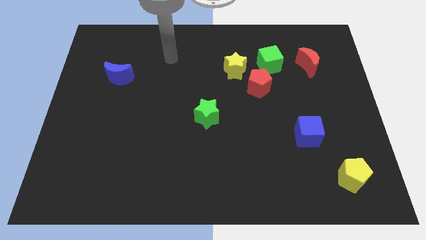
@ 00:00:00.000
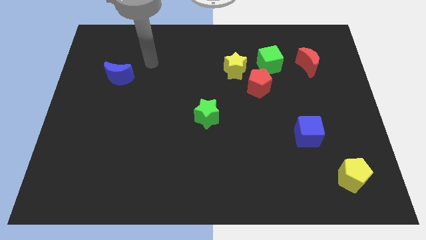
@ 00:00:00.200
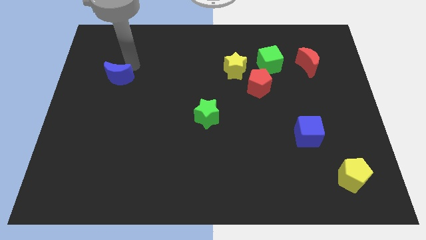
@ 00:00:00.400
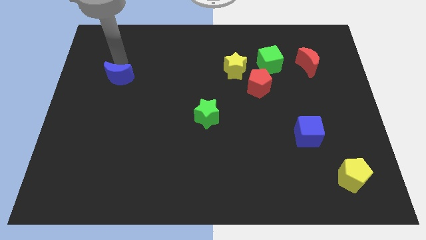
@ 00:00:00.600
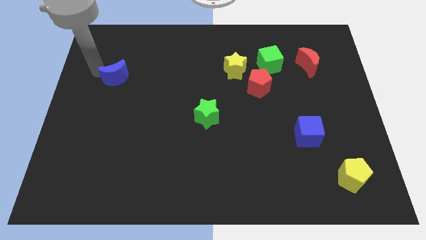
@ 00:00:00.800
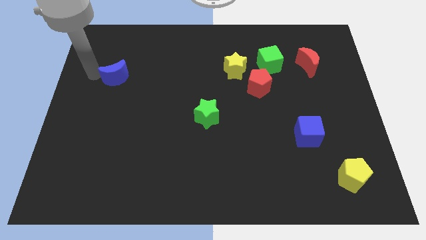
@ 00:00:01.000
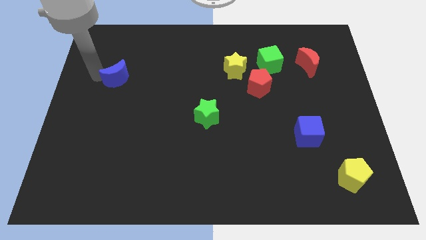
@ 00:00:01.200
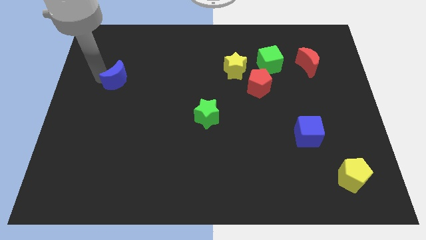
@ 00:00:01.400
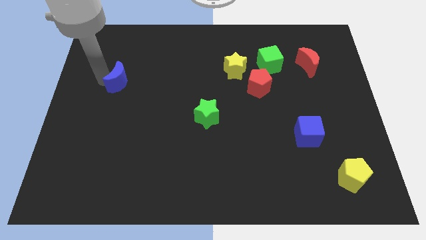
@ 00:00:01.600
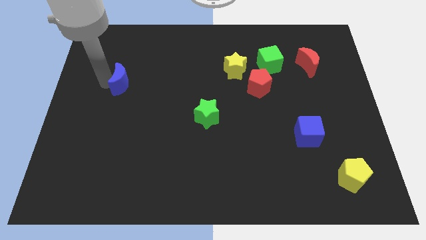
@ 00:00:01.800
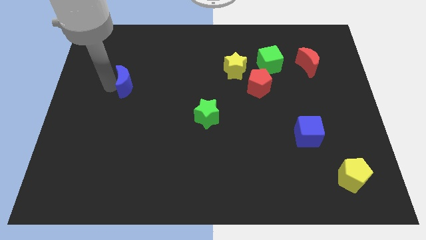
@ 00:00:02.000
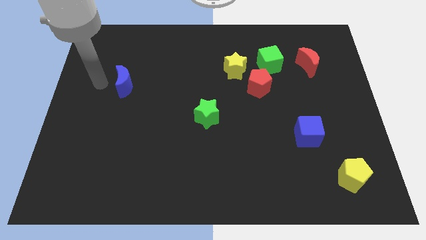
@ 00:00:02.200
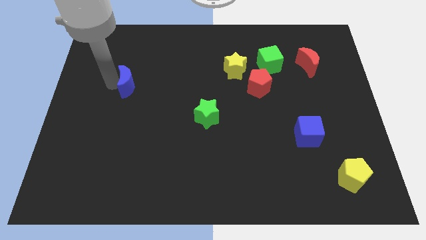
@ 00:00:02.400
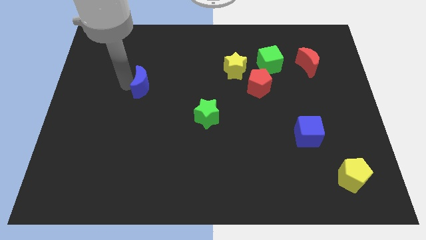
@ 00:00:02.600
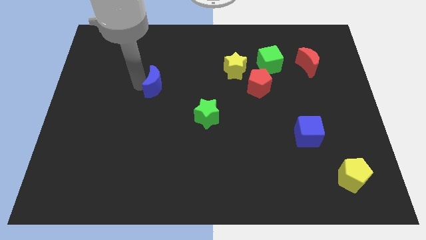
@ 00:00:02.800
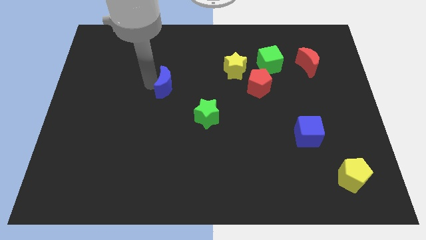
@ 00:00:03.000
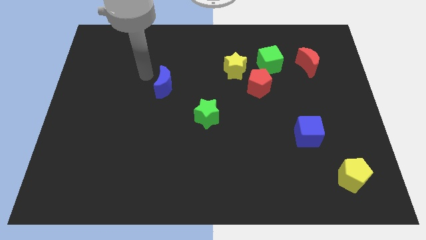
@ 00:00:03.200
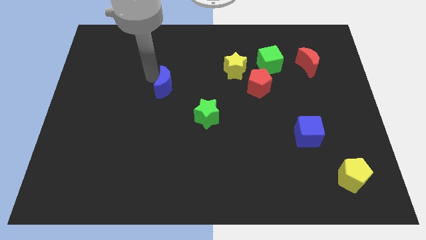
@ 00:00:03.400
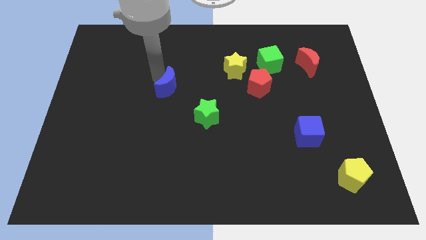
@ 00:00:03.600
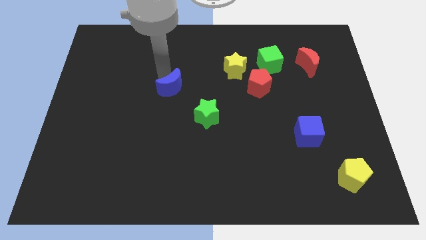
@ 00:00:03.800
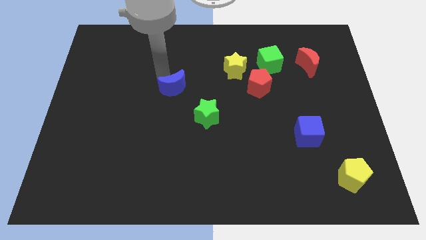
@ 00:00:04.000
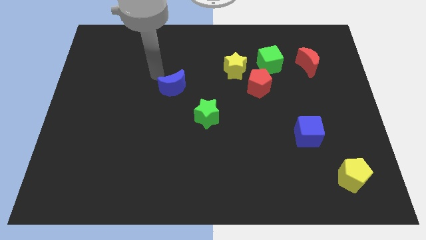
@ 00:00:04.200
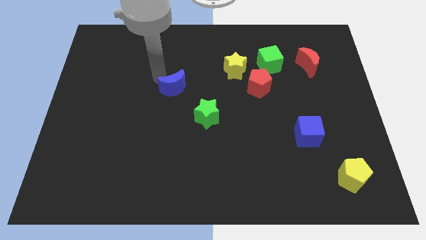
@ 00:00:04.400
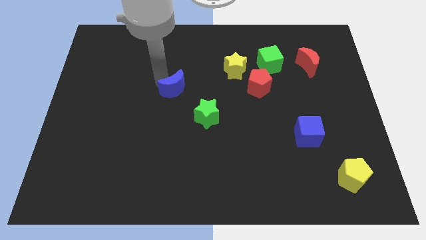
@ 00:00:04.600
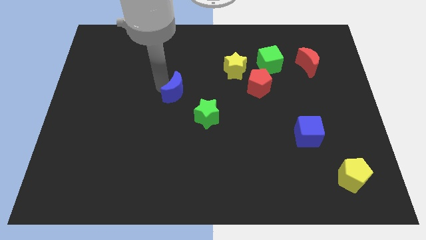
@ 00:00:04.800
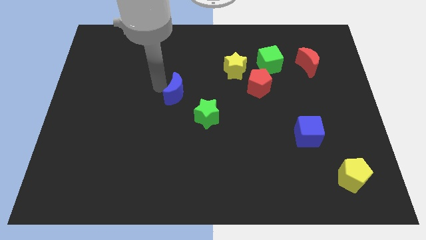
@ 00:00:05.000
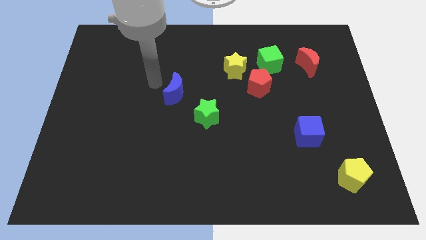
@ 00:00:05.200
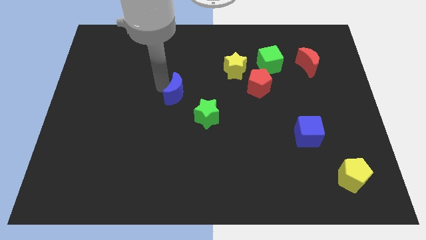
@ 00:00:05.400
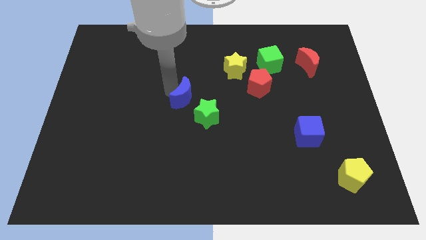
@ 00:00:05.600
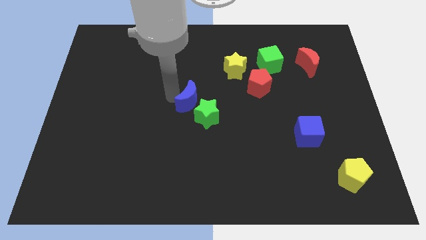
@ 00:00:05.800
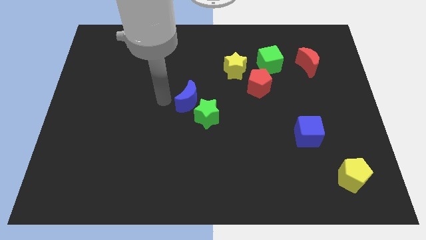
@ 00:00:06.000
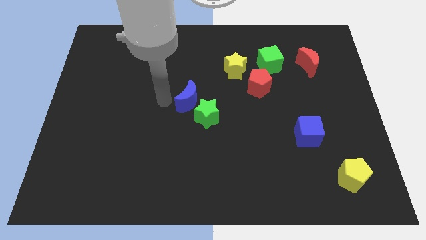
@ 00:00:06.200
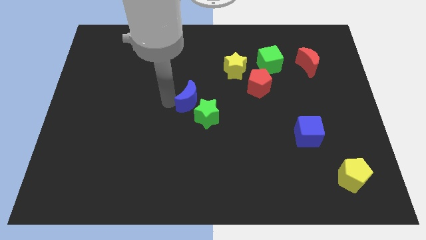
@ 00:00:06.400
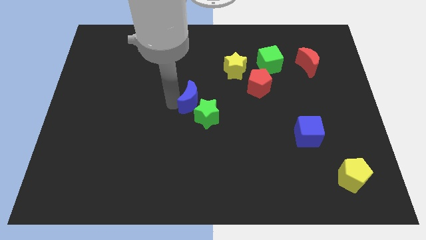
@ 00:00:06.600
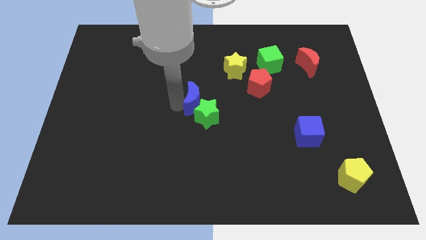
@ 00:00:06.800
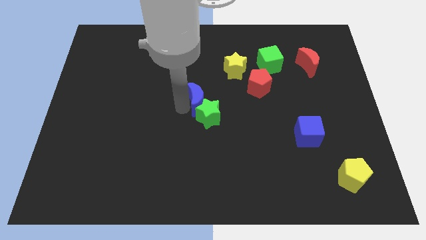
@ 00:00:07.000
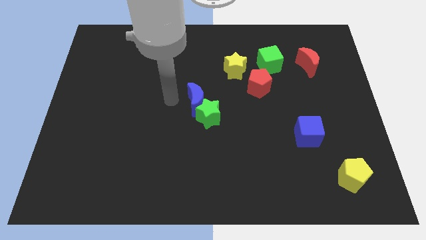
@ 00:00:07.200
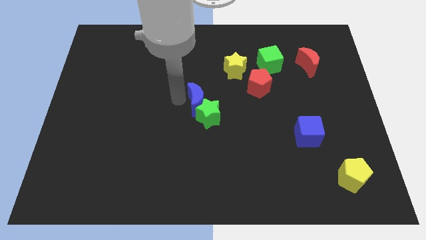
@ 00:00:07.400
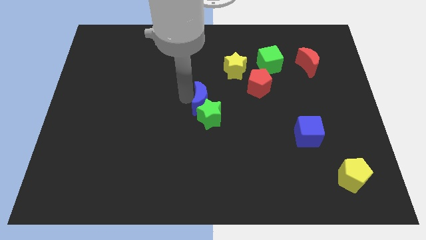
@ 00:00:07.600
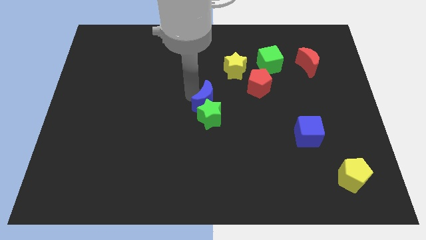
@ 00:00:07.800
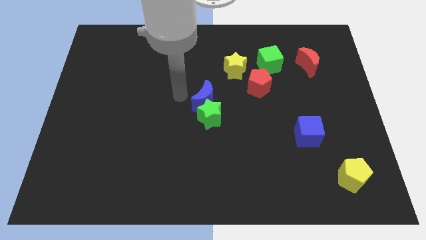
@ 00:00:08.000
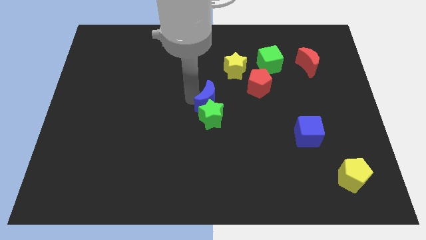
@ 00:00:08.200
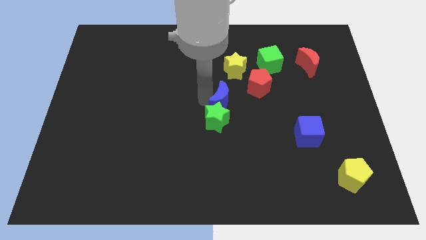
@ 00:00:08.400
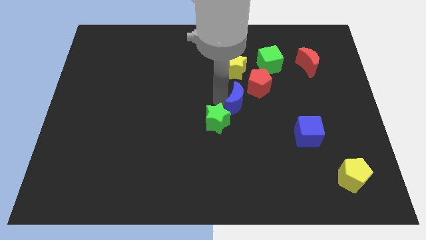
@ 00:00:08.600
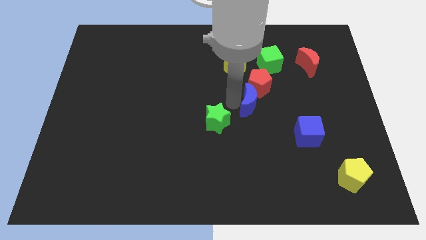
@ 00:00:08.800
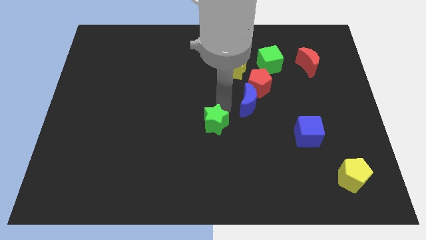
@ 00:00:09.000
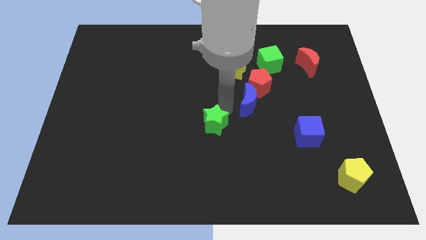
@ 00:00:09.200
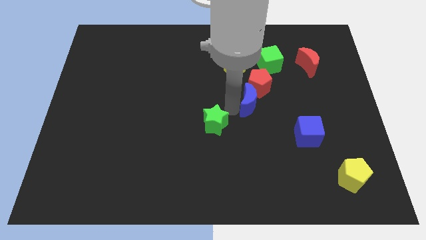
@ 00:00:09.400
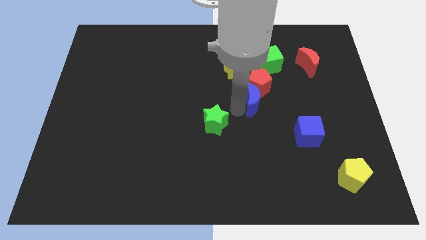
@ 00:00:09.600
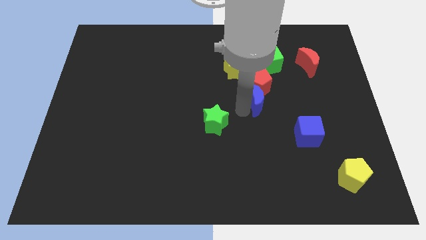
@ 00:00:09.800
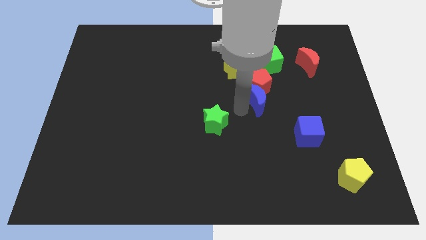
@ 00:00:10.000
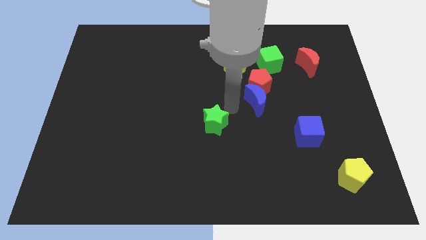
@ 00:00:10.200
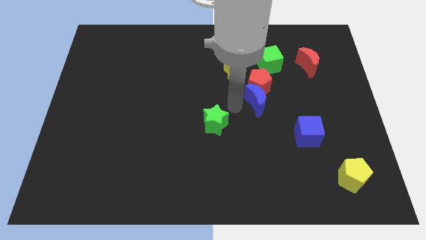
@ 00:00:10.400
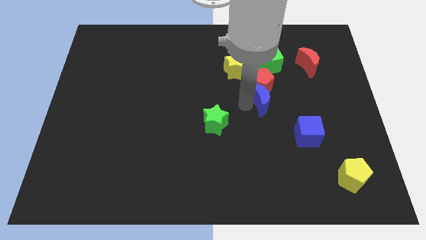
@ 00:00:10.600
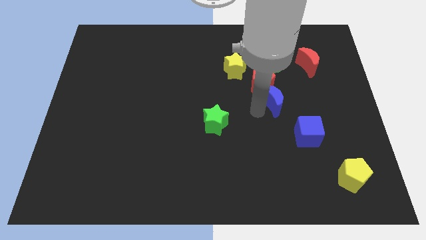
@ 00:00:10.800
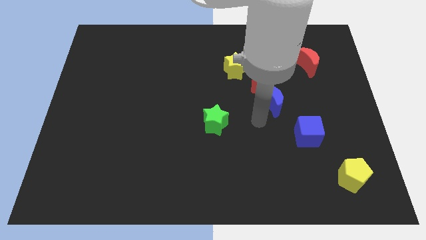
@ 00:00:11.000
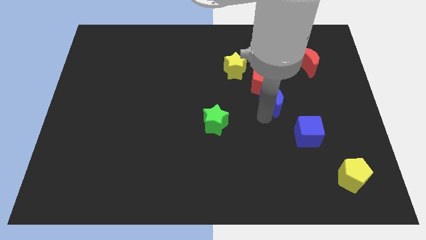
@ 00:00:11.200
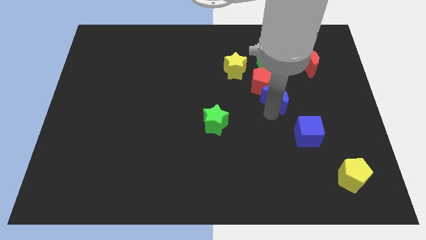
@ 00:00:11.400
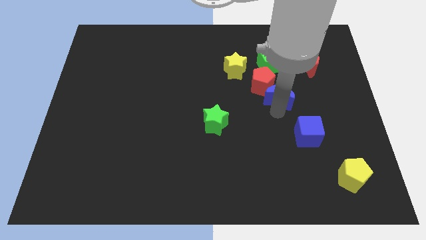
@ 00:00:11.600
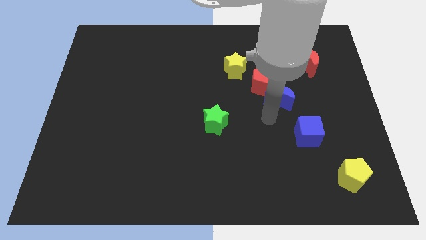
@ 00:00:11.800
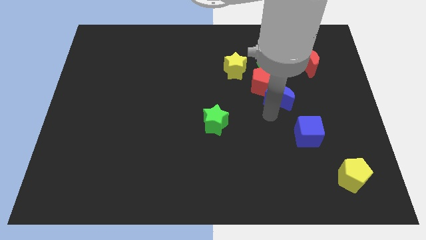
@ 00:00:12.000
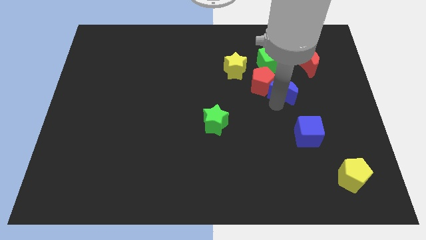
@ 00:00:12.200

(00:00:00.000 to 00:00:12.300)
slide the blue moon diagonally down and to the left of the red moon
